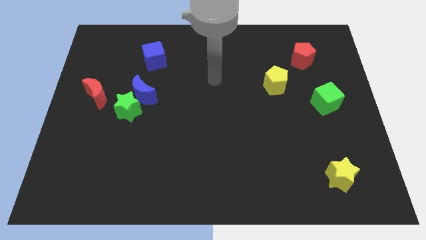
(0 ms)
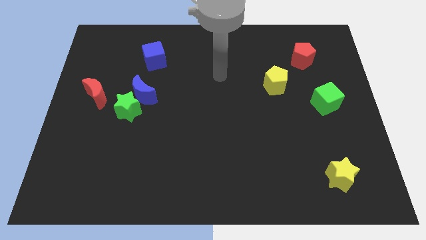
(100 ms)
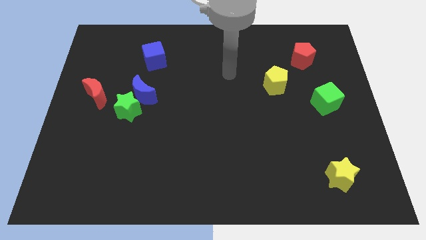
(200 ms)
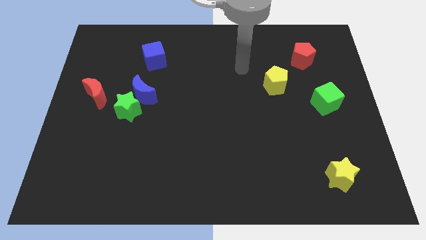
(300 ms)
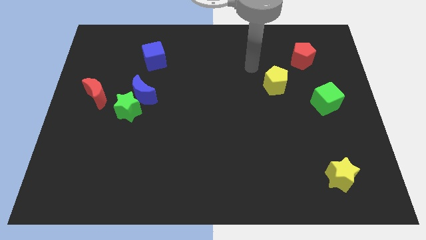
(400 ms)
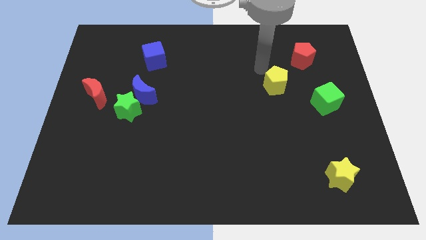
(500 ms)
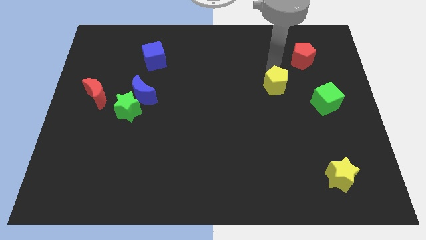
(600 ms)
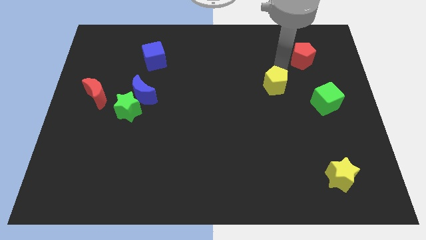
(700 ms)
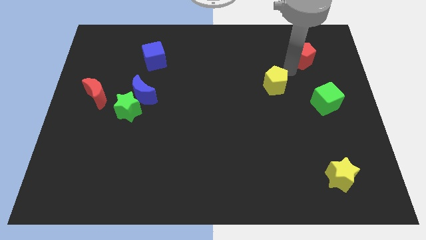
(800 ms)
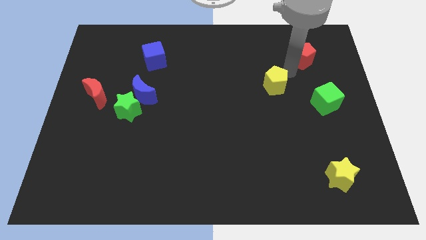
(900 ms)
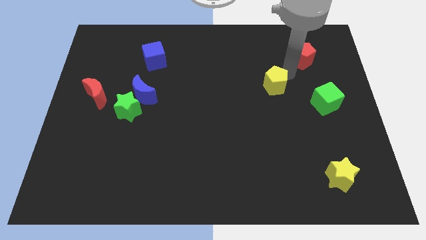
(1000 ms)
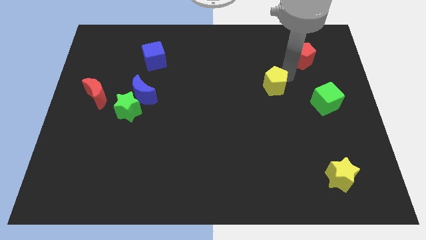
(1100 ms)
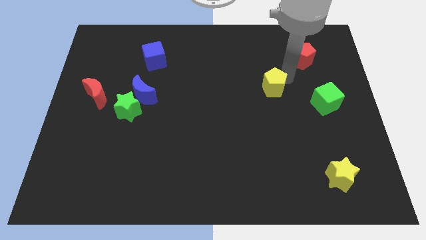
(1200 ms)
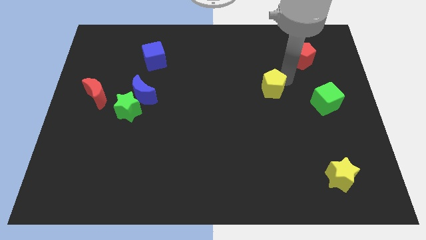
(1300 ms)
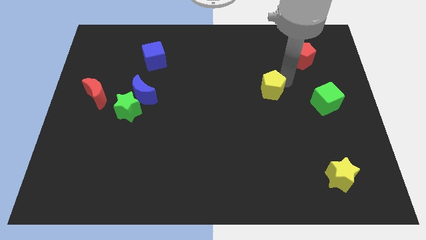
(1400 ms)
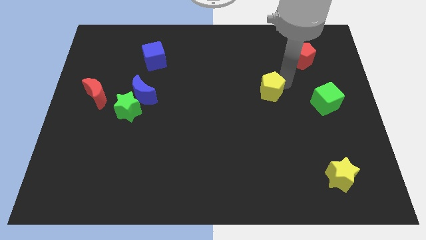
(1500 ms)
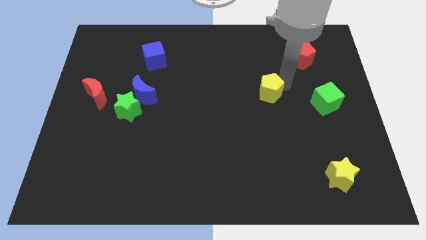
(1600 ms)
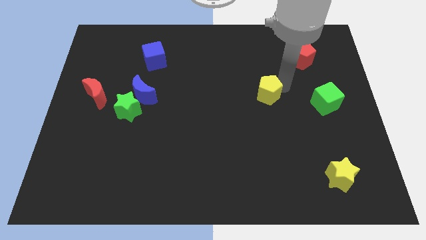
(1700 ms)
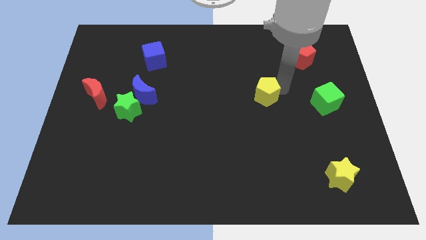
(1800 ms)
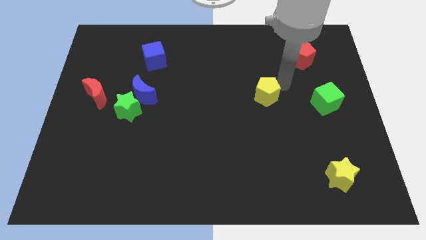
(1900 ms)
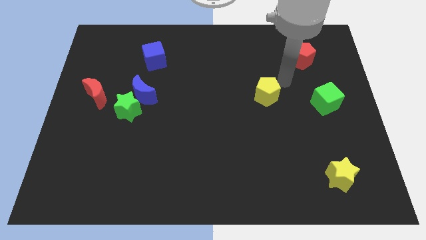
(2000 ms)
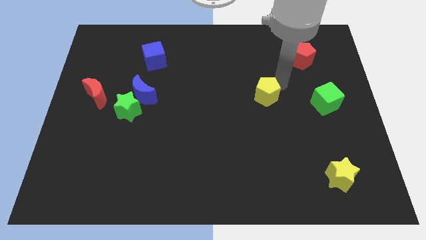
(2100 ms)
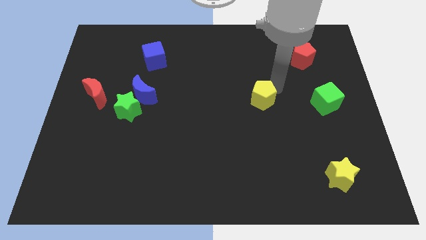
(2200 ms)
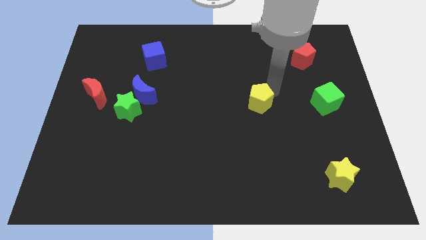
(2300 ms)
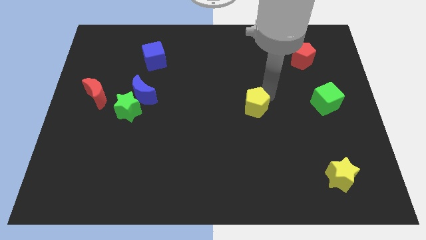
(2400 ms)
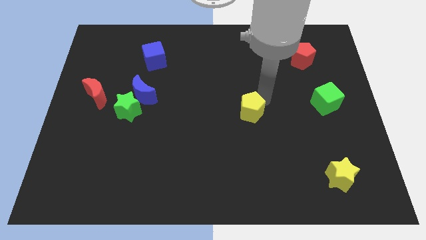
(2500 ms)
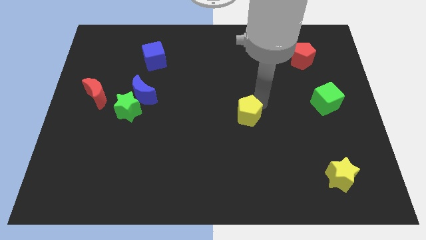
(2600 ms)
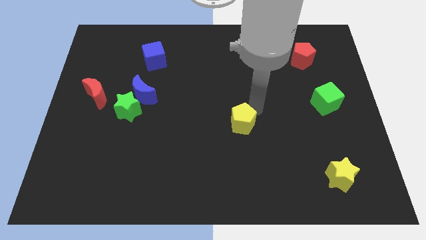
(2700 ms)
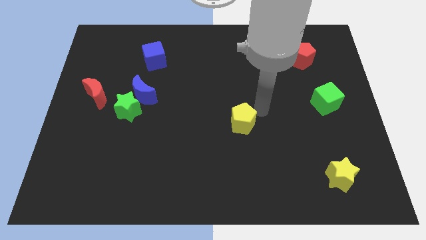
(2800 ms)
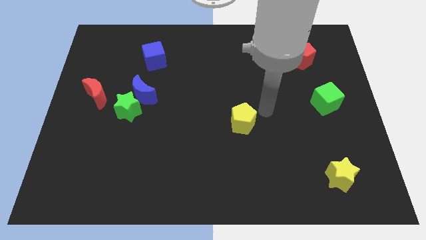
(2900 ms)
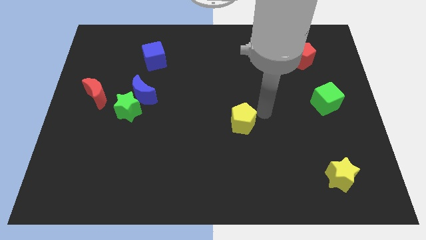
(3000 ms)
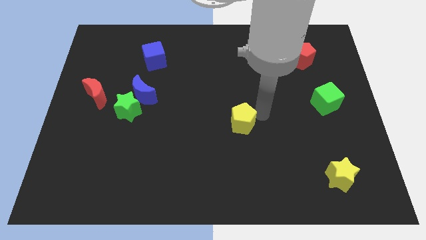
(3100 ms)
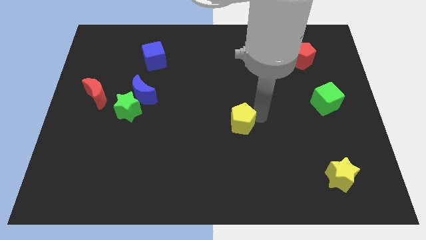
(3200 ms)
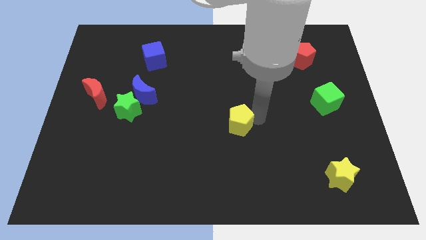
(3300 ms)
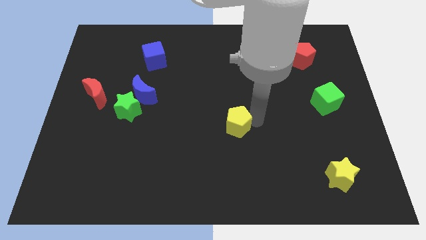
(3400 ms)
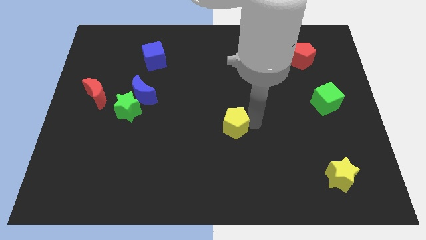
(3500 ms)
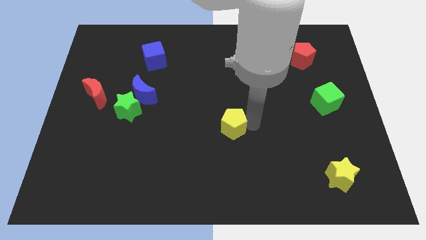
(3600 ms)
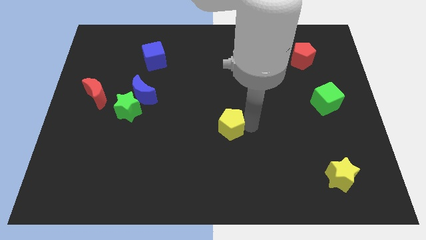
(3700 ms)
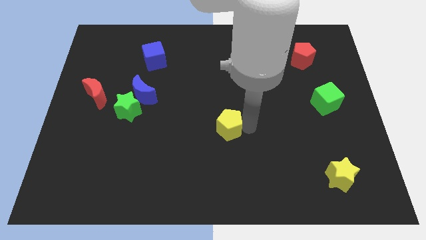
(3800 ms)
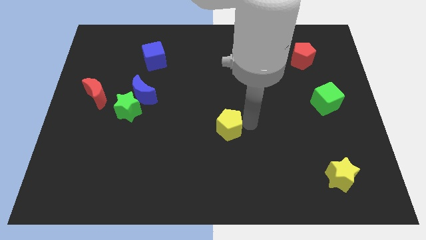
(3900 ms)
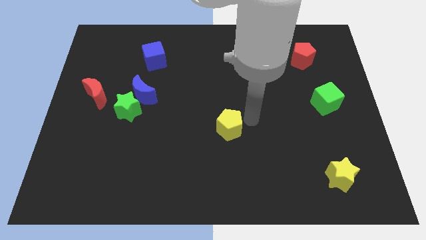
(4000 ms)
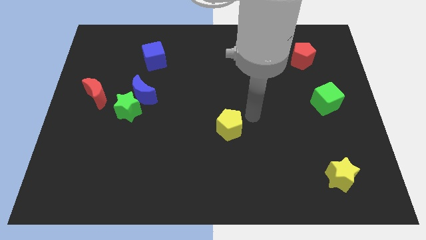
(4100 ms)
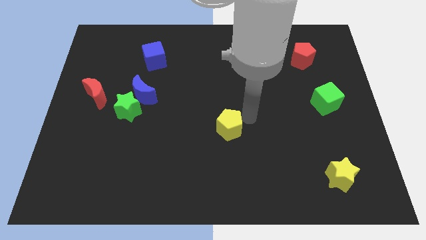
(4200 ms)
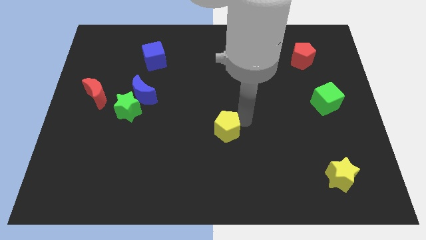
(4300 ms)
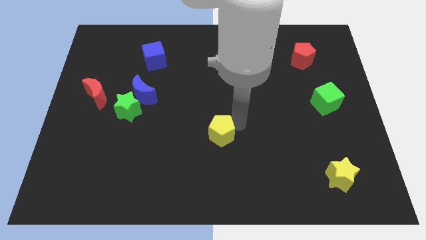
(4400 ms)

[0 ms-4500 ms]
move the yellow pentagon downwards and left

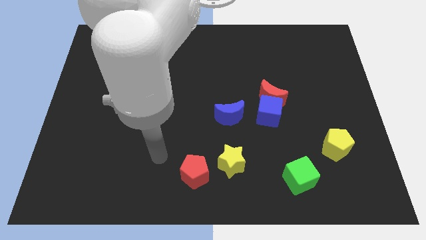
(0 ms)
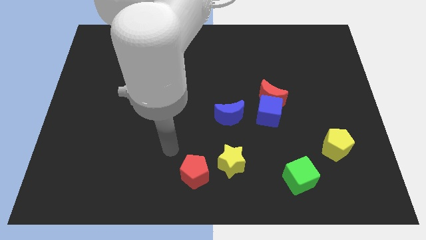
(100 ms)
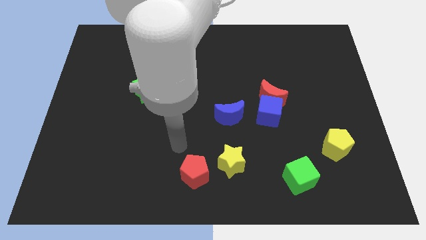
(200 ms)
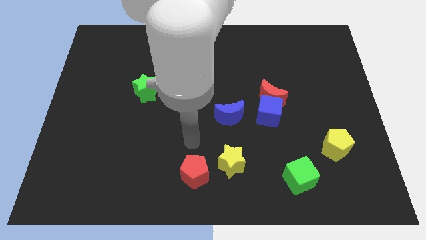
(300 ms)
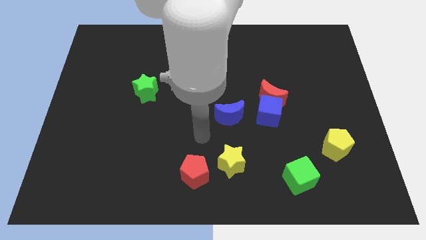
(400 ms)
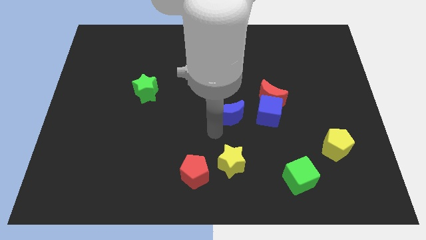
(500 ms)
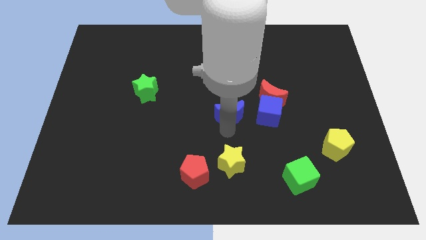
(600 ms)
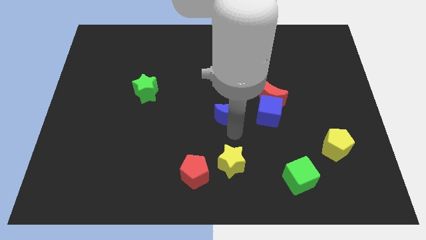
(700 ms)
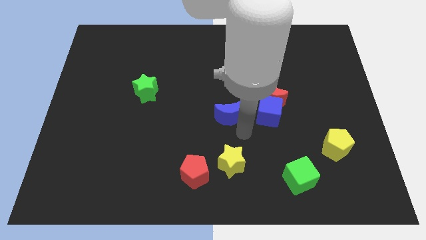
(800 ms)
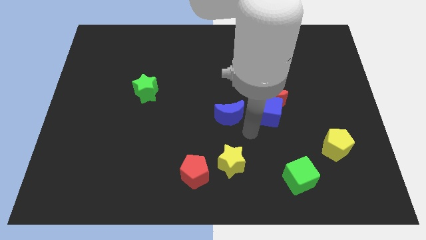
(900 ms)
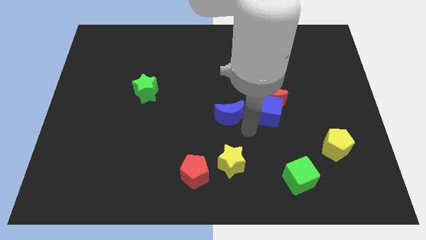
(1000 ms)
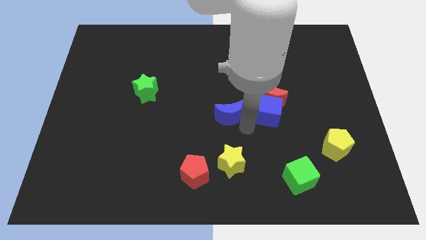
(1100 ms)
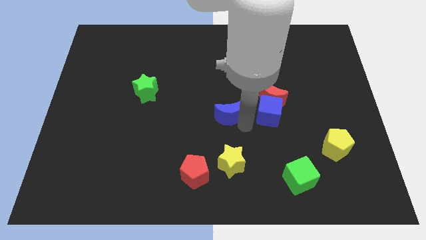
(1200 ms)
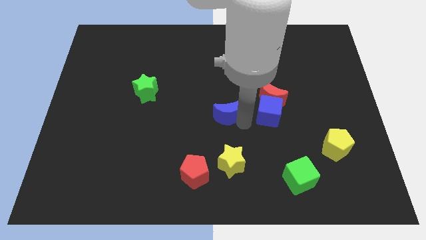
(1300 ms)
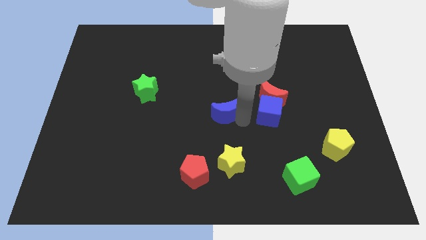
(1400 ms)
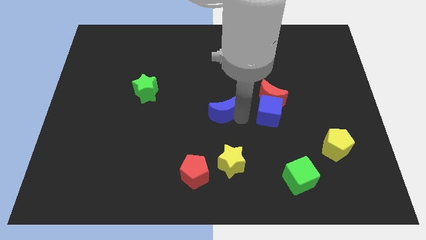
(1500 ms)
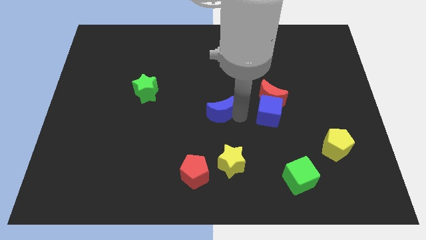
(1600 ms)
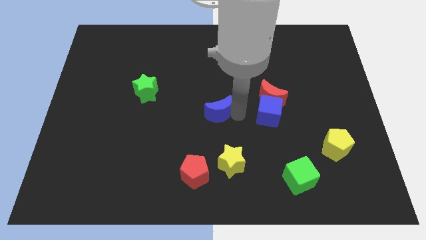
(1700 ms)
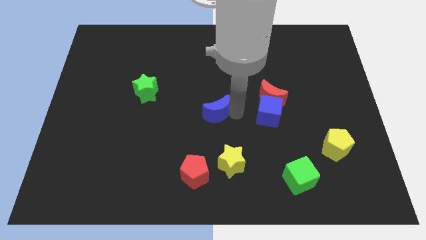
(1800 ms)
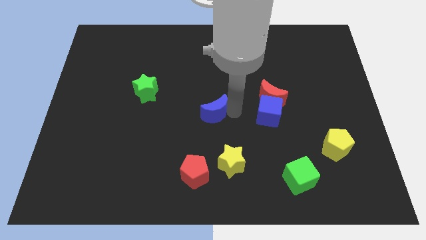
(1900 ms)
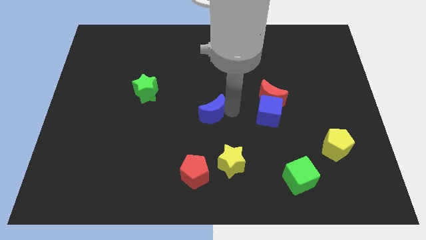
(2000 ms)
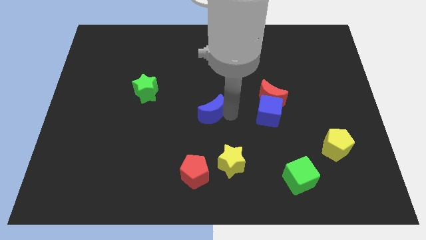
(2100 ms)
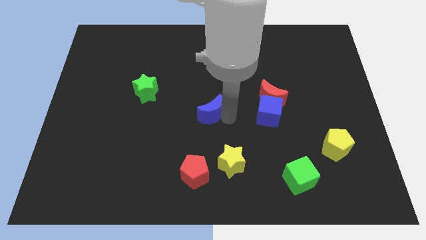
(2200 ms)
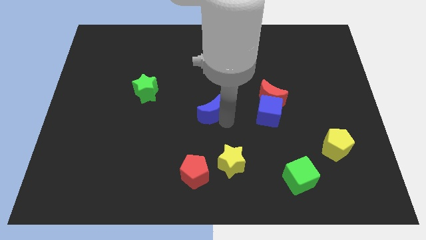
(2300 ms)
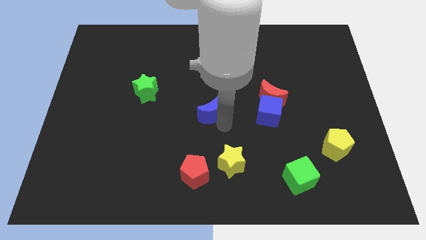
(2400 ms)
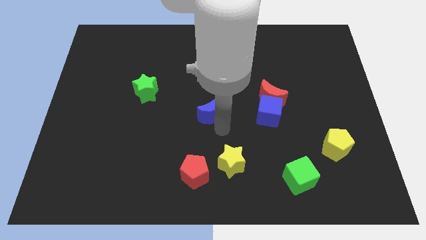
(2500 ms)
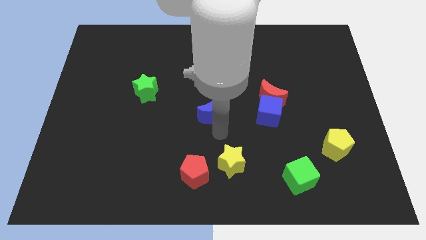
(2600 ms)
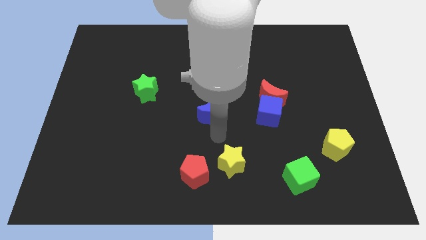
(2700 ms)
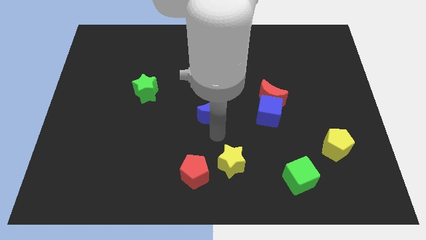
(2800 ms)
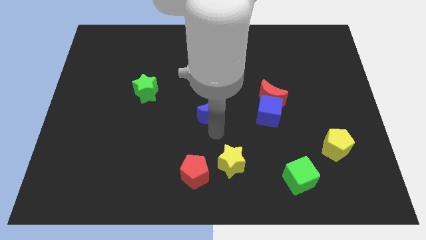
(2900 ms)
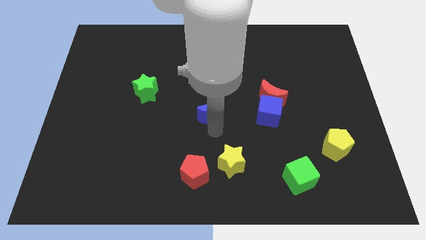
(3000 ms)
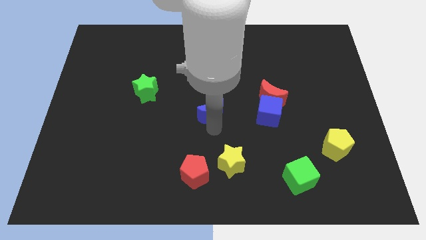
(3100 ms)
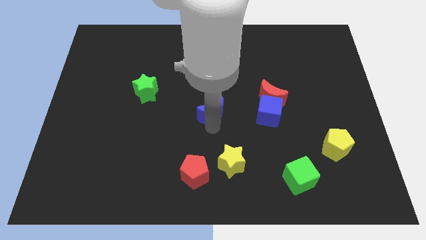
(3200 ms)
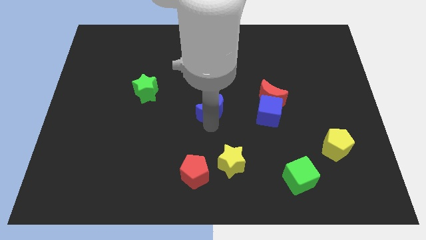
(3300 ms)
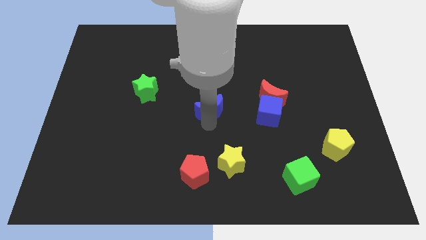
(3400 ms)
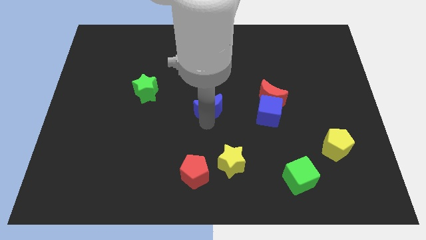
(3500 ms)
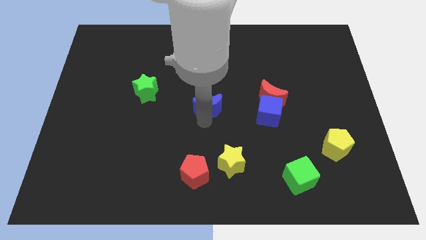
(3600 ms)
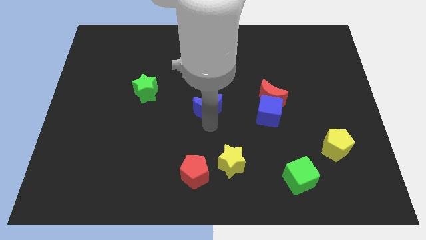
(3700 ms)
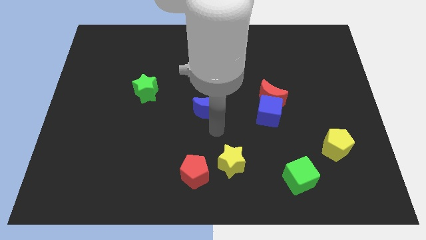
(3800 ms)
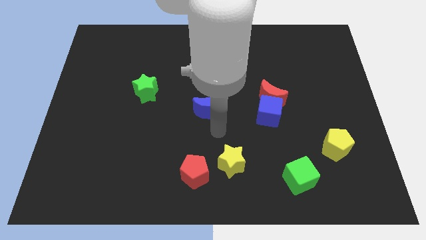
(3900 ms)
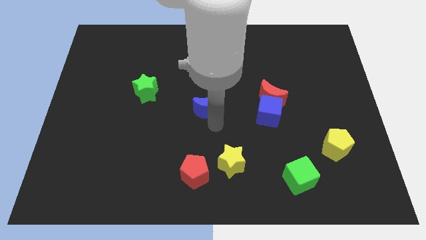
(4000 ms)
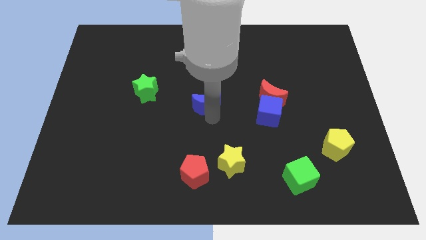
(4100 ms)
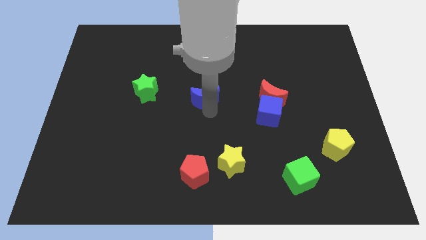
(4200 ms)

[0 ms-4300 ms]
slightly push the blue moon diagonally upwards and to the left
